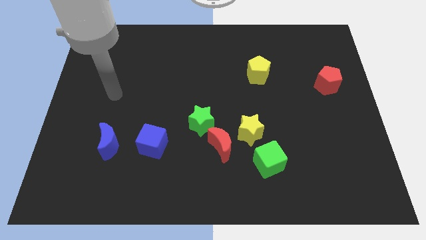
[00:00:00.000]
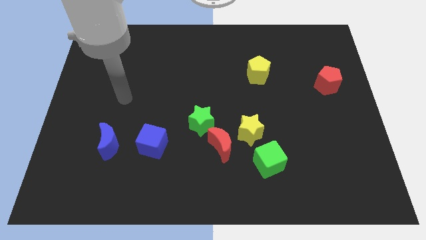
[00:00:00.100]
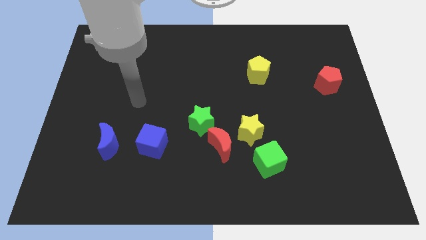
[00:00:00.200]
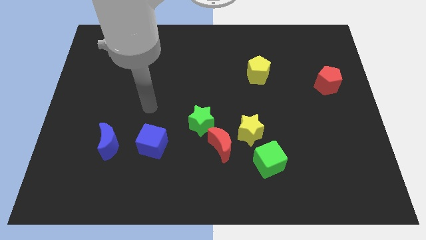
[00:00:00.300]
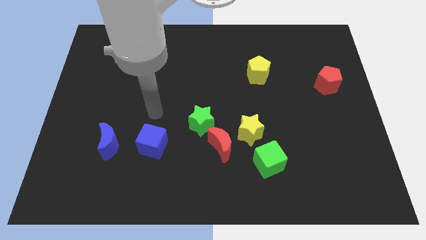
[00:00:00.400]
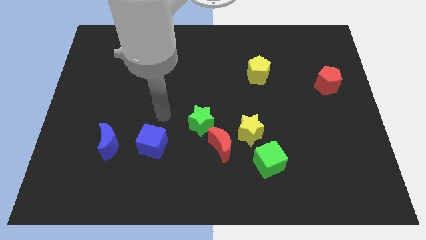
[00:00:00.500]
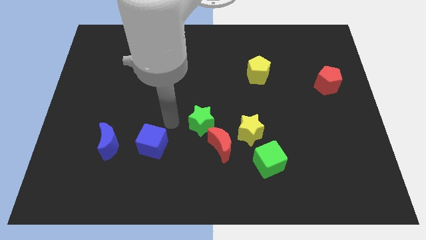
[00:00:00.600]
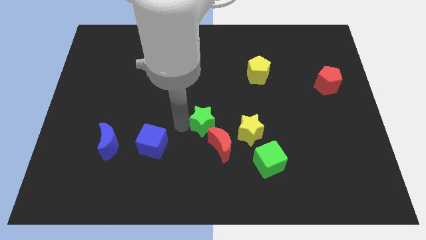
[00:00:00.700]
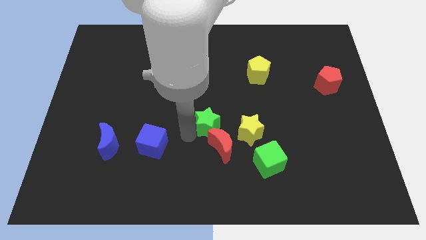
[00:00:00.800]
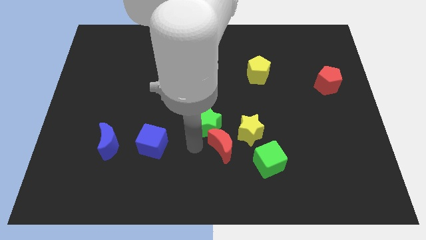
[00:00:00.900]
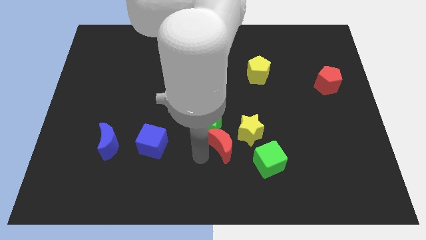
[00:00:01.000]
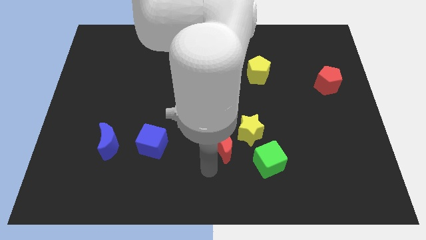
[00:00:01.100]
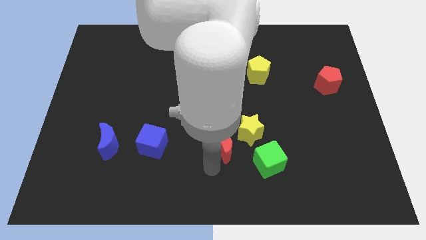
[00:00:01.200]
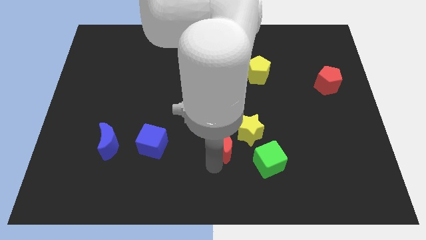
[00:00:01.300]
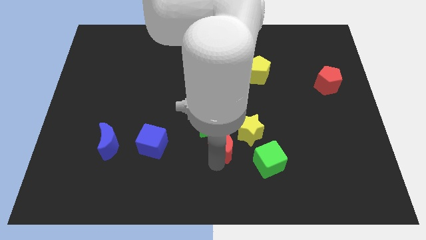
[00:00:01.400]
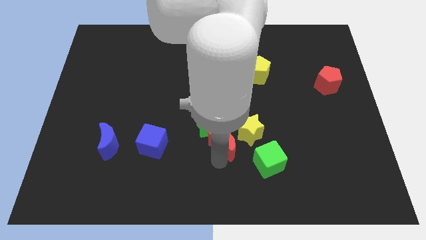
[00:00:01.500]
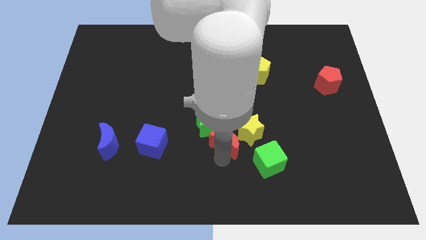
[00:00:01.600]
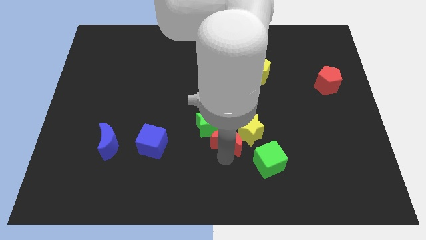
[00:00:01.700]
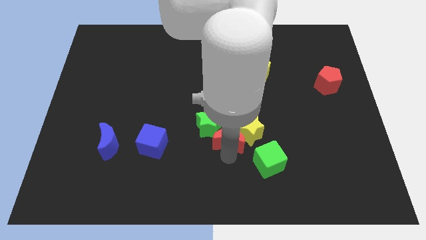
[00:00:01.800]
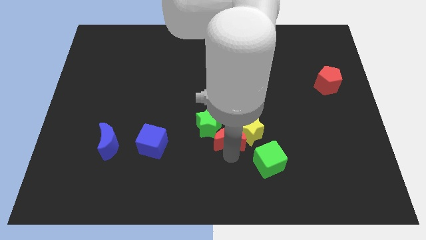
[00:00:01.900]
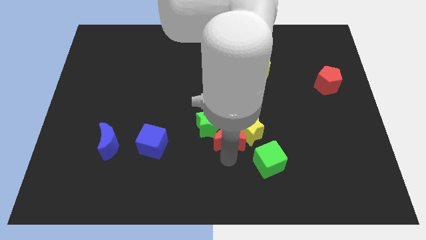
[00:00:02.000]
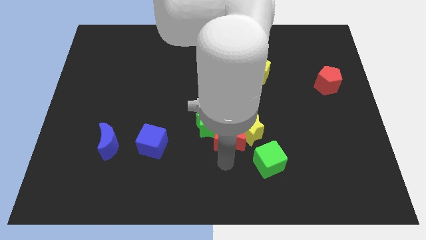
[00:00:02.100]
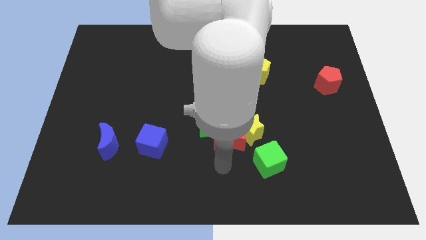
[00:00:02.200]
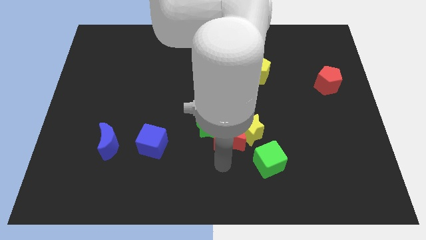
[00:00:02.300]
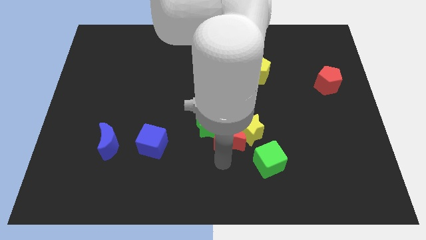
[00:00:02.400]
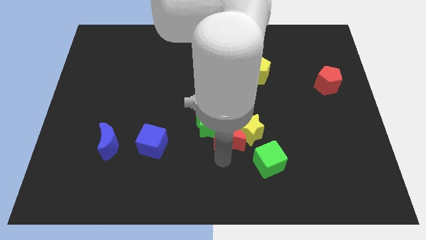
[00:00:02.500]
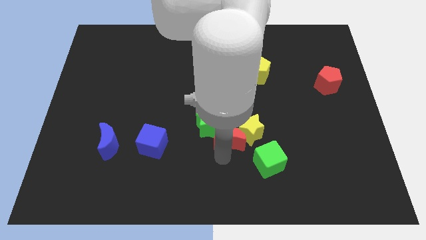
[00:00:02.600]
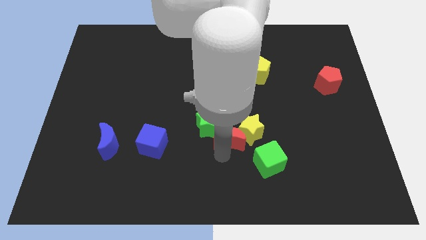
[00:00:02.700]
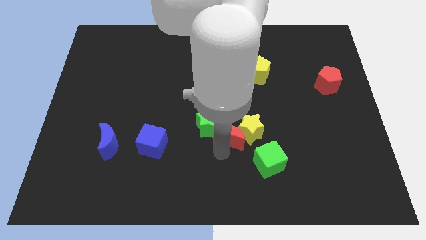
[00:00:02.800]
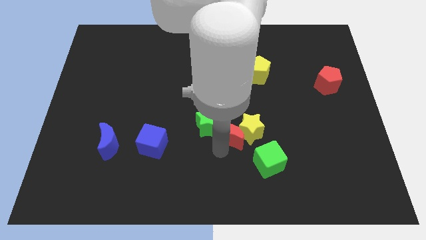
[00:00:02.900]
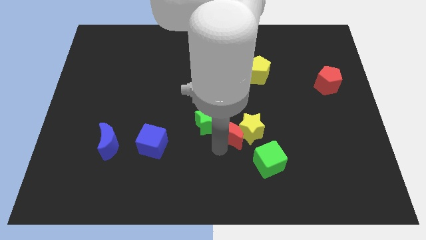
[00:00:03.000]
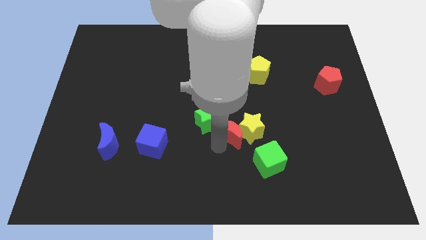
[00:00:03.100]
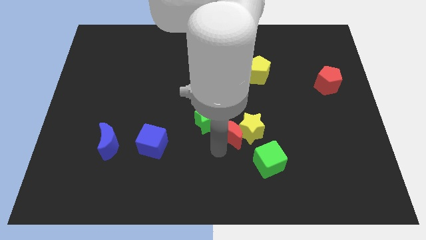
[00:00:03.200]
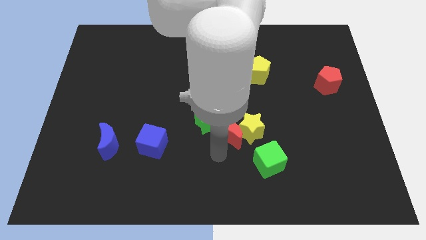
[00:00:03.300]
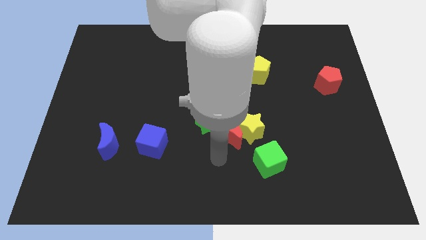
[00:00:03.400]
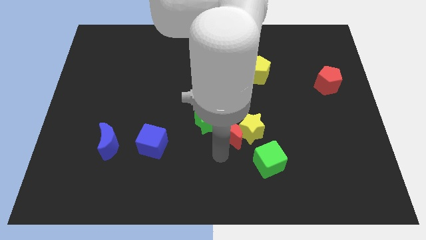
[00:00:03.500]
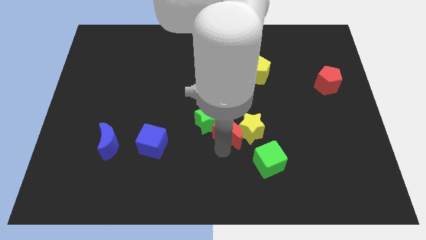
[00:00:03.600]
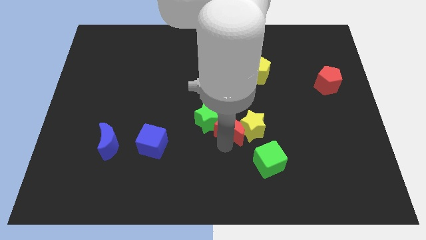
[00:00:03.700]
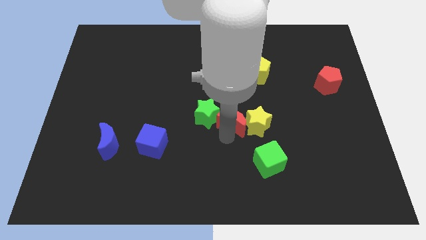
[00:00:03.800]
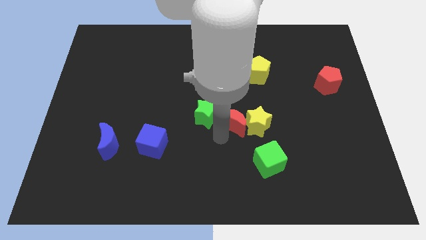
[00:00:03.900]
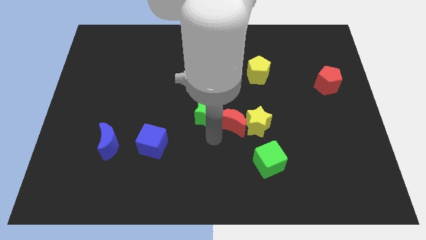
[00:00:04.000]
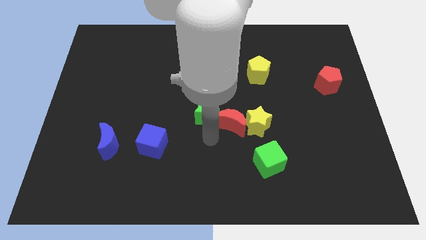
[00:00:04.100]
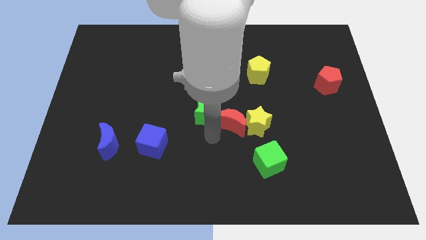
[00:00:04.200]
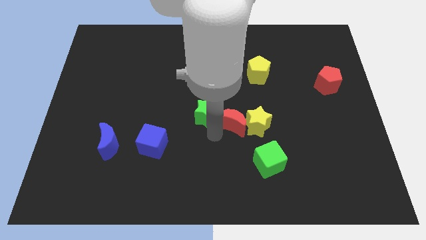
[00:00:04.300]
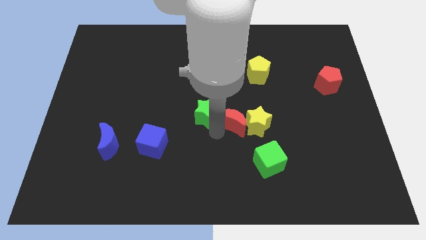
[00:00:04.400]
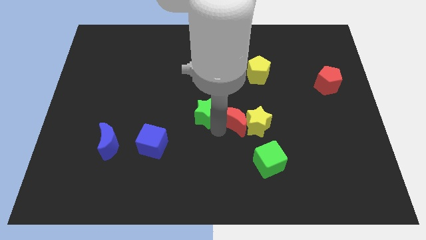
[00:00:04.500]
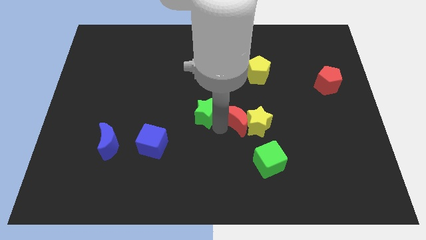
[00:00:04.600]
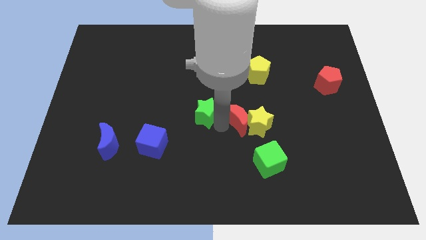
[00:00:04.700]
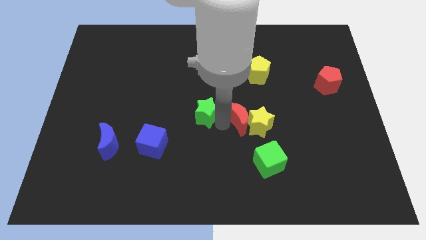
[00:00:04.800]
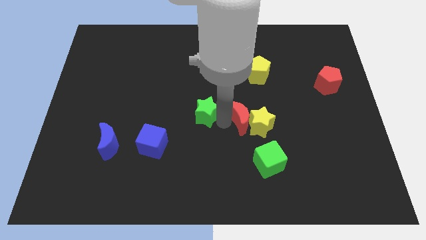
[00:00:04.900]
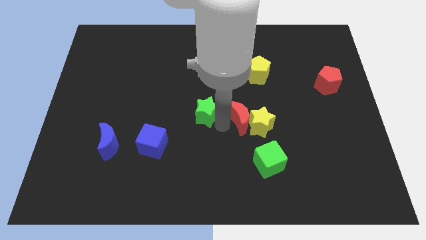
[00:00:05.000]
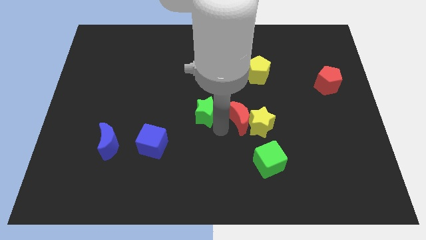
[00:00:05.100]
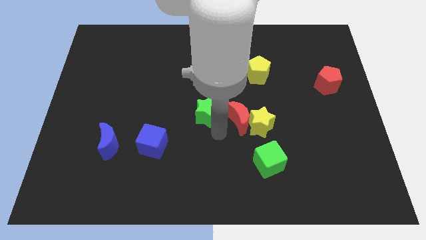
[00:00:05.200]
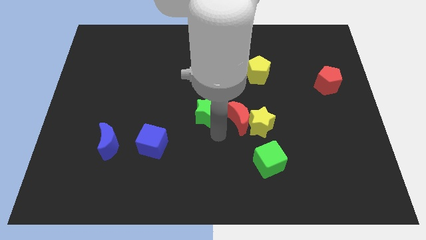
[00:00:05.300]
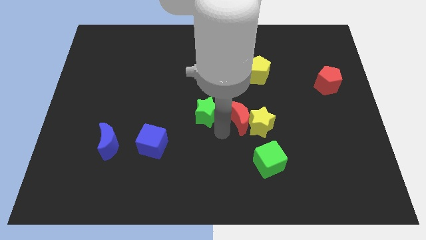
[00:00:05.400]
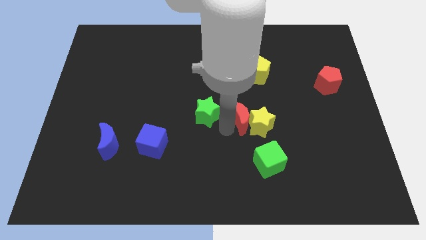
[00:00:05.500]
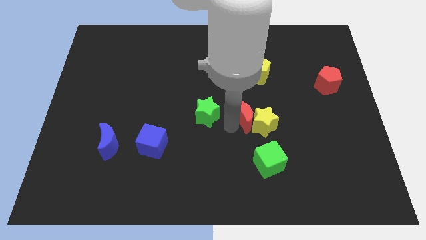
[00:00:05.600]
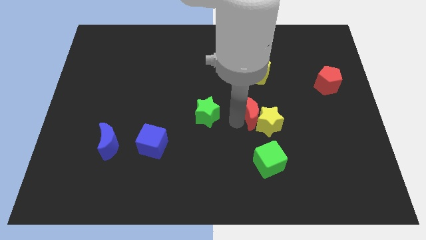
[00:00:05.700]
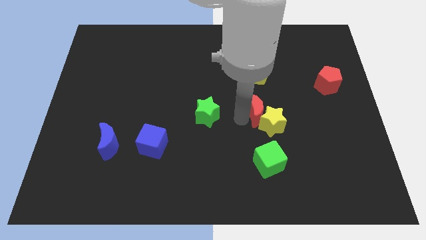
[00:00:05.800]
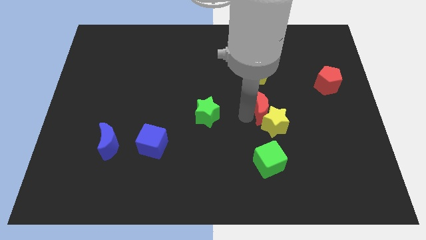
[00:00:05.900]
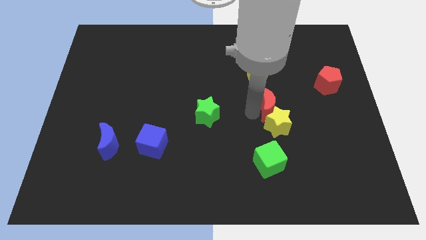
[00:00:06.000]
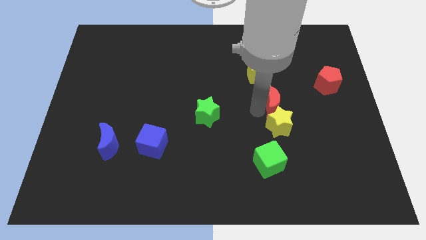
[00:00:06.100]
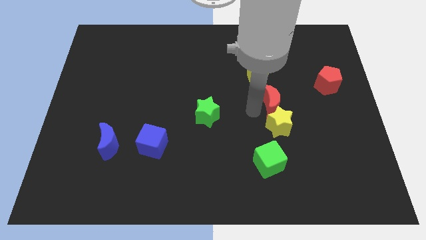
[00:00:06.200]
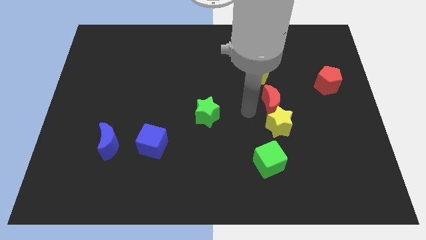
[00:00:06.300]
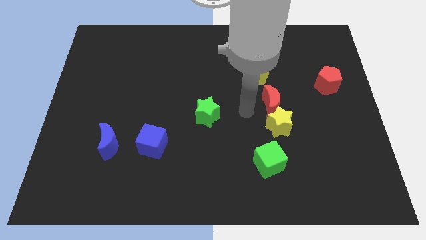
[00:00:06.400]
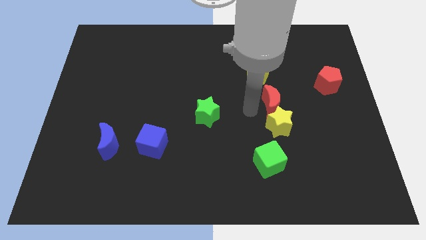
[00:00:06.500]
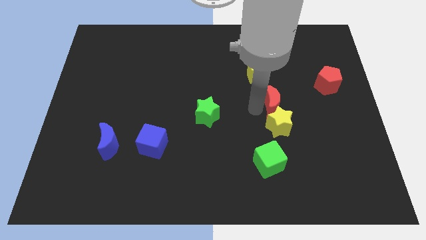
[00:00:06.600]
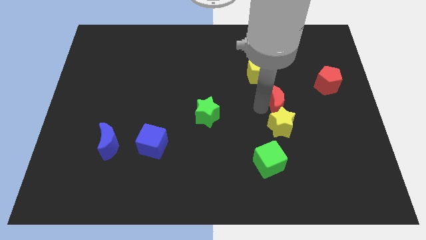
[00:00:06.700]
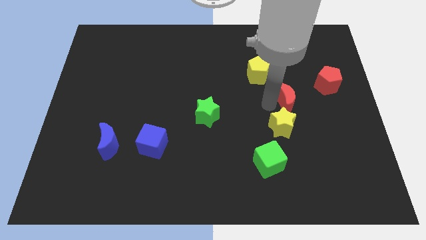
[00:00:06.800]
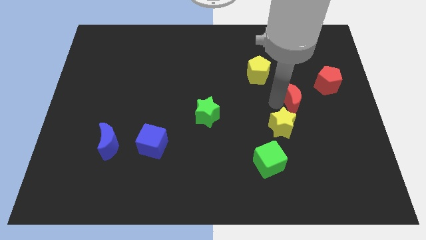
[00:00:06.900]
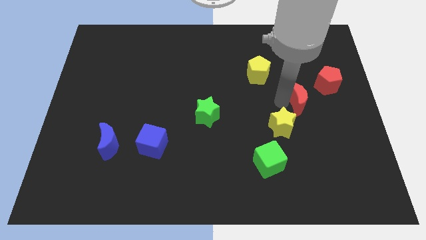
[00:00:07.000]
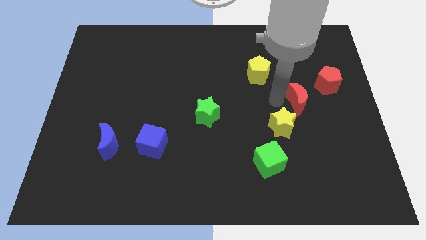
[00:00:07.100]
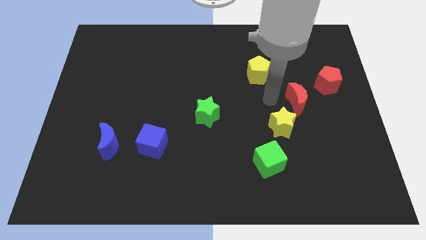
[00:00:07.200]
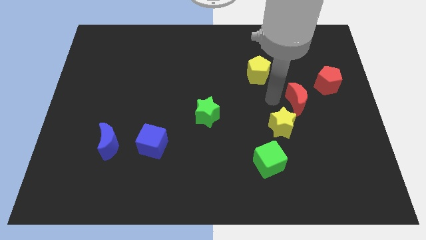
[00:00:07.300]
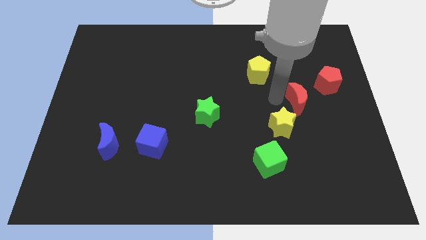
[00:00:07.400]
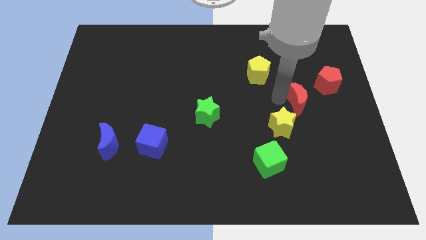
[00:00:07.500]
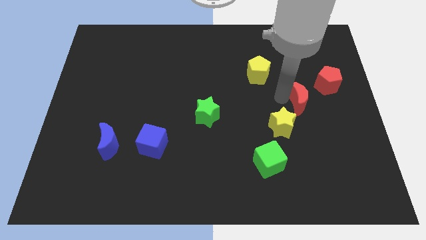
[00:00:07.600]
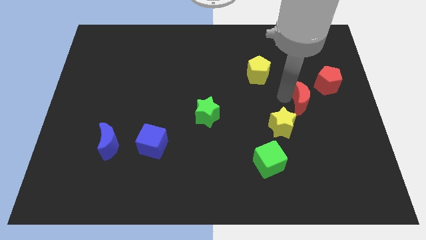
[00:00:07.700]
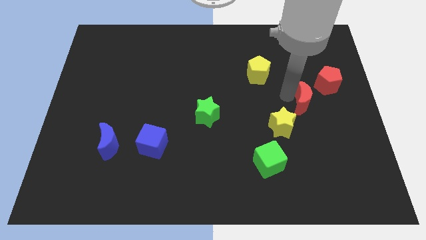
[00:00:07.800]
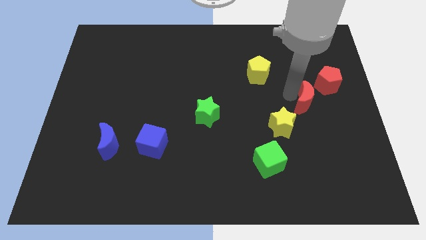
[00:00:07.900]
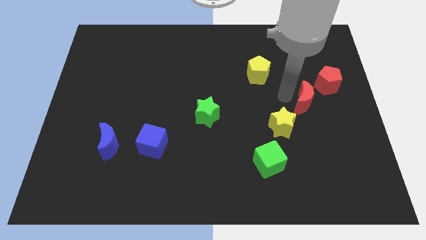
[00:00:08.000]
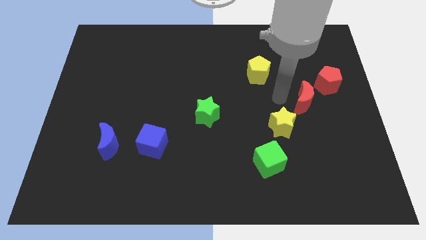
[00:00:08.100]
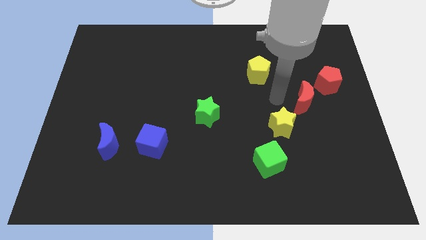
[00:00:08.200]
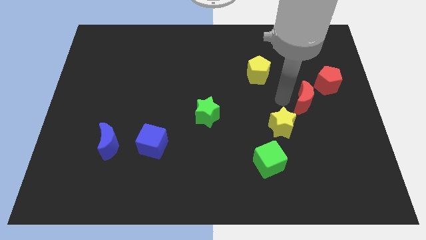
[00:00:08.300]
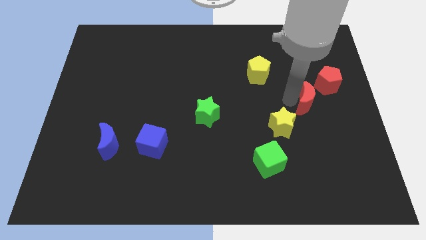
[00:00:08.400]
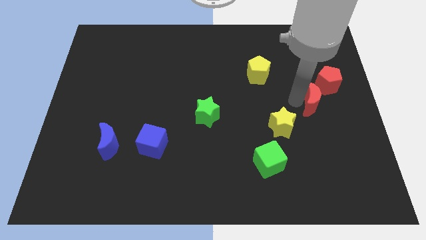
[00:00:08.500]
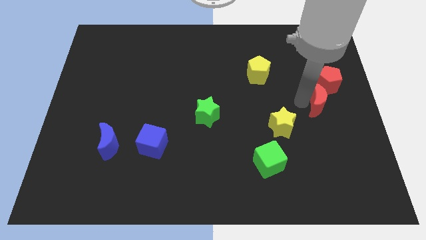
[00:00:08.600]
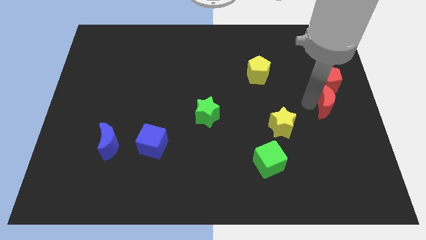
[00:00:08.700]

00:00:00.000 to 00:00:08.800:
move the red moon to the right side of the board
